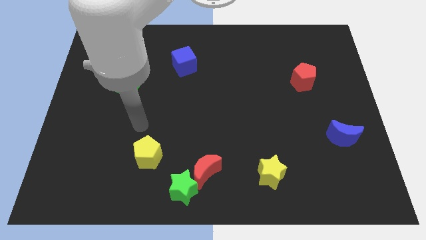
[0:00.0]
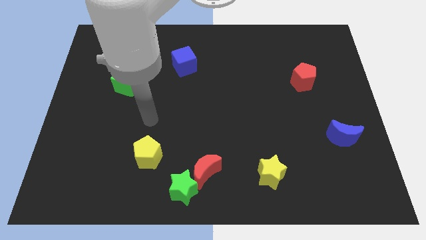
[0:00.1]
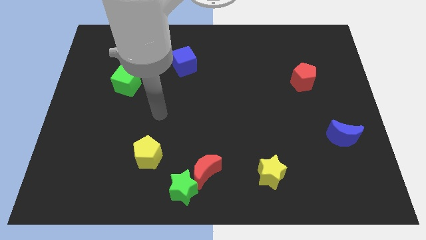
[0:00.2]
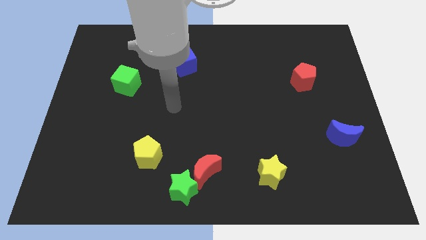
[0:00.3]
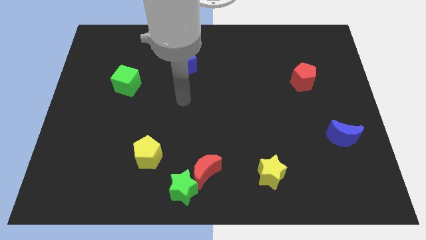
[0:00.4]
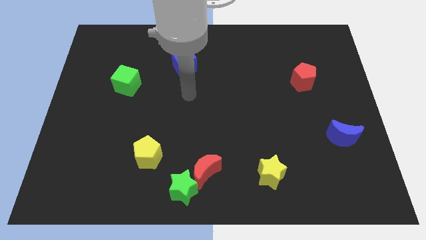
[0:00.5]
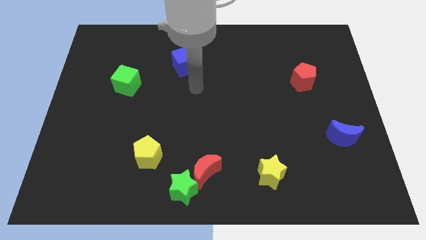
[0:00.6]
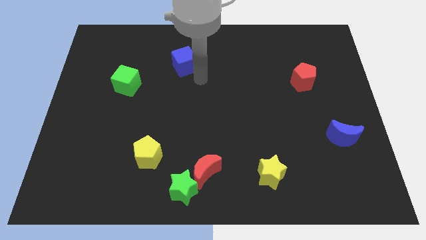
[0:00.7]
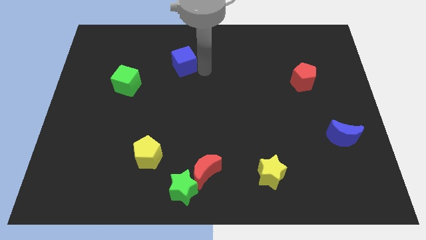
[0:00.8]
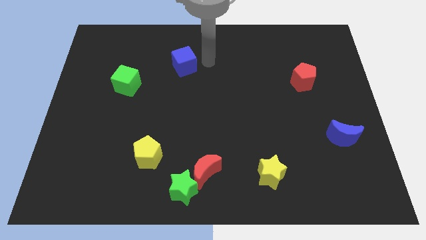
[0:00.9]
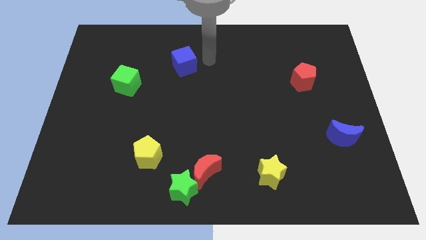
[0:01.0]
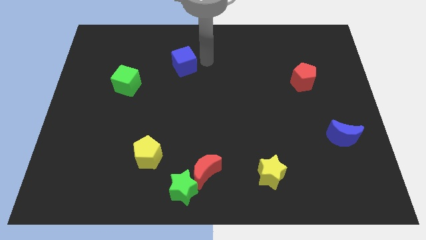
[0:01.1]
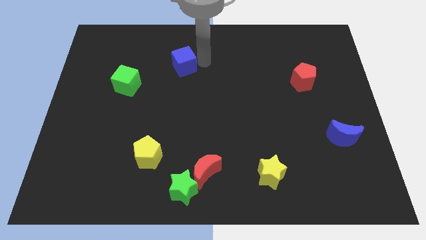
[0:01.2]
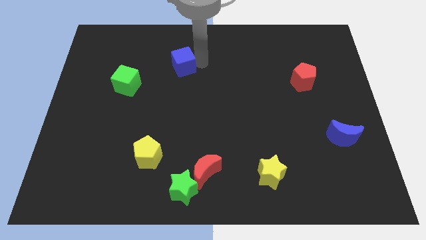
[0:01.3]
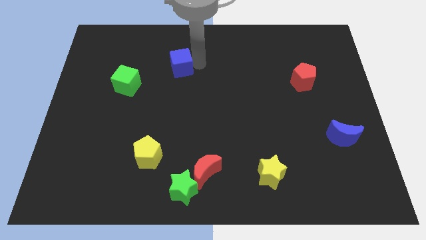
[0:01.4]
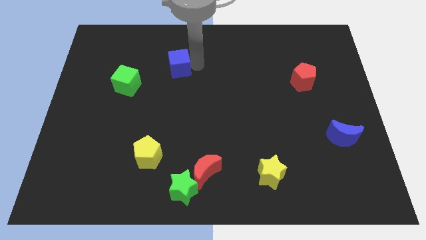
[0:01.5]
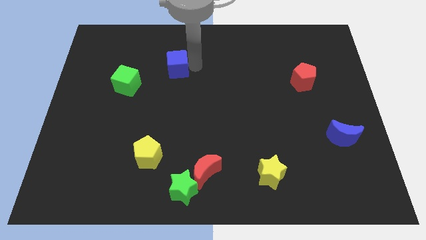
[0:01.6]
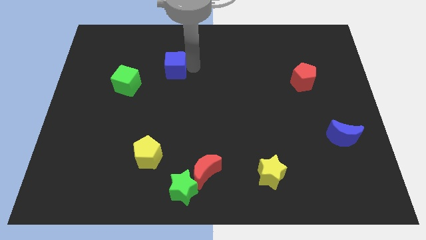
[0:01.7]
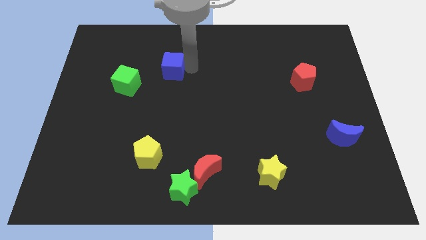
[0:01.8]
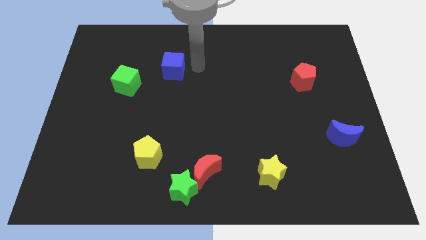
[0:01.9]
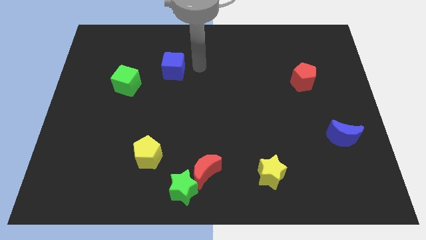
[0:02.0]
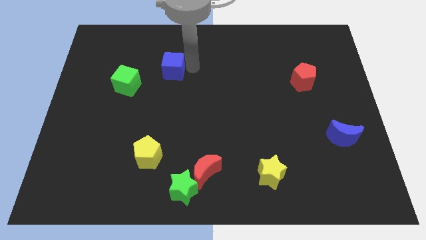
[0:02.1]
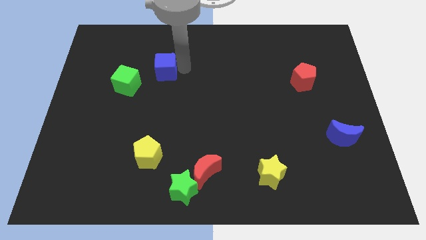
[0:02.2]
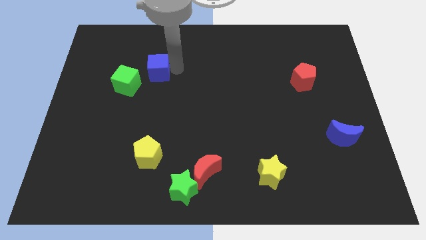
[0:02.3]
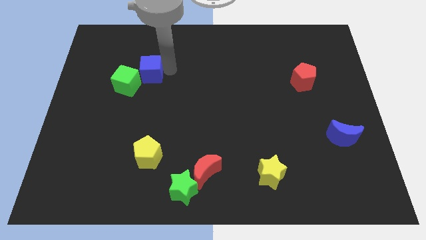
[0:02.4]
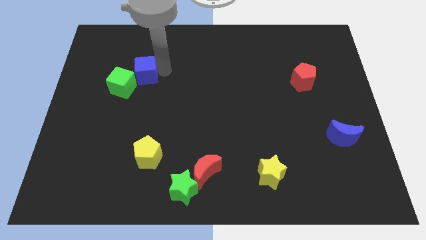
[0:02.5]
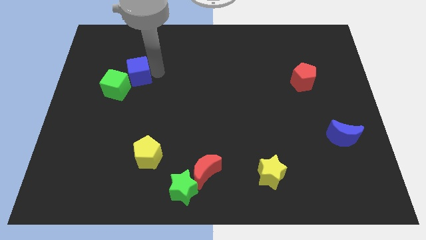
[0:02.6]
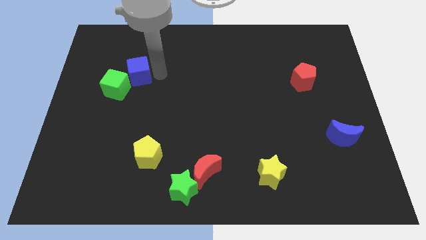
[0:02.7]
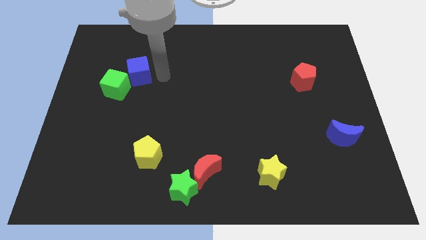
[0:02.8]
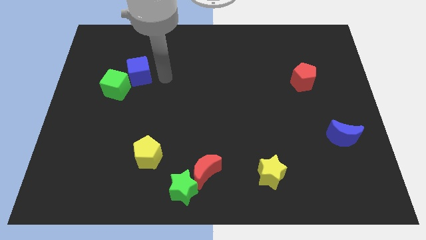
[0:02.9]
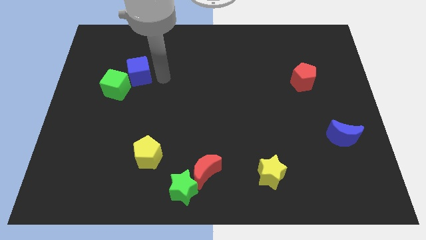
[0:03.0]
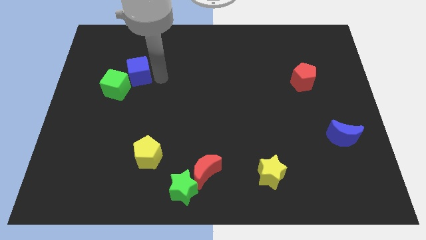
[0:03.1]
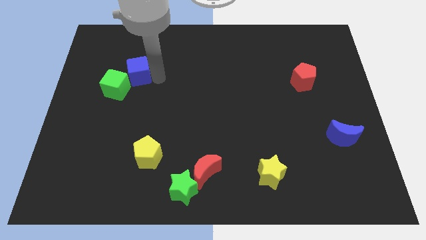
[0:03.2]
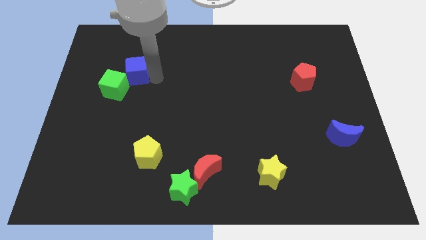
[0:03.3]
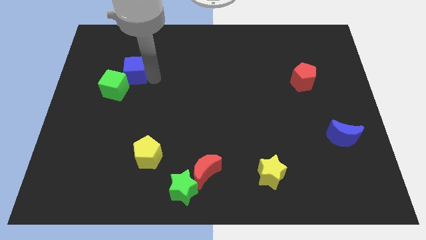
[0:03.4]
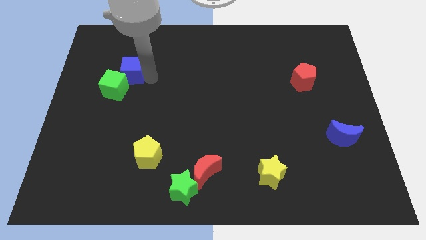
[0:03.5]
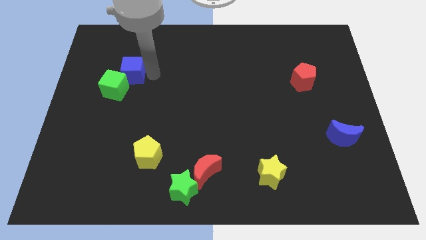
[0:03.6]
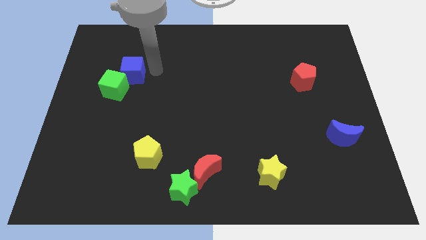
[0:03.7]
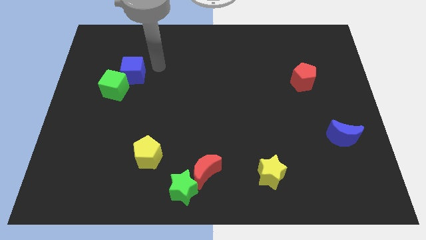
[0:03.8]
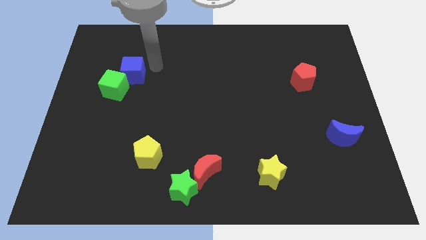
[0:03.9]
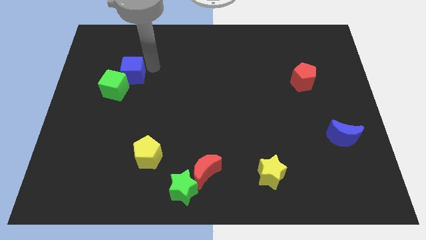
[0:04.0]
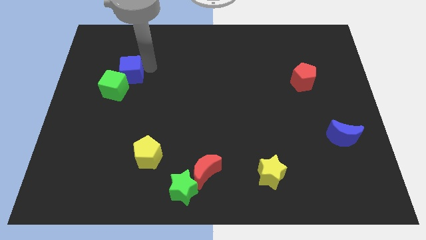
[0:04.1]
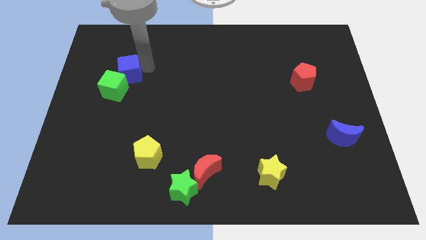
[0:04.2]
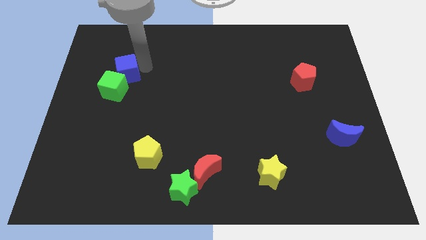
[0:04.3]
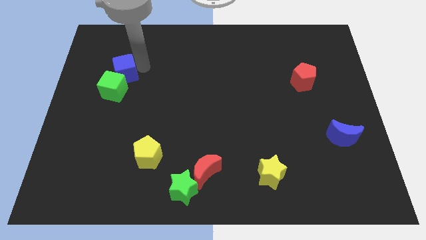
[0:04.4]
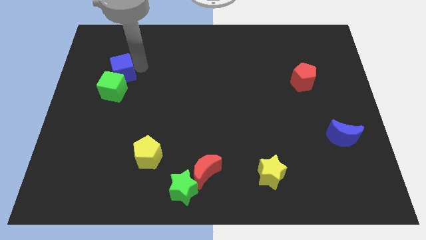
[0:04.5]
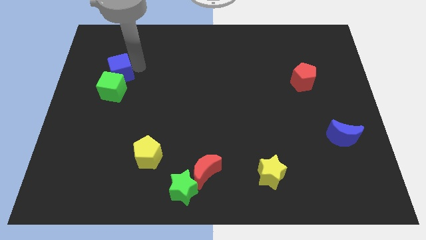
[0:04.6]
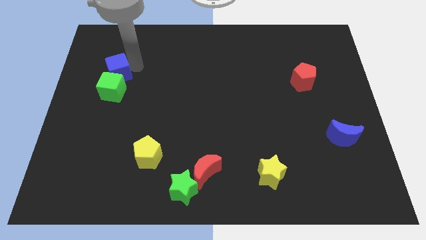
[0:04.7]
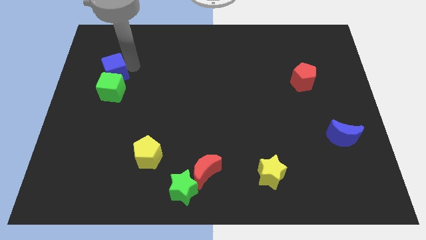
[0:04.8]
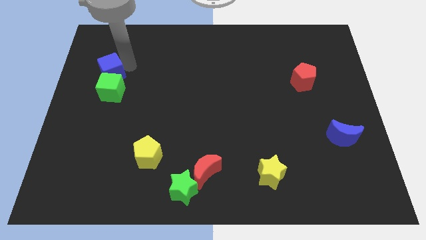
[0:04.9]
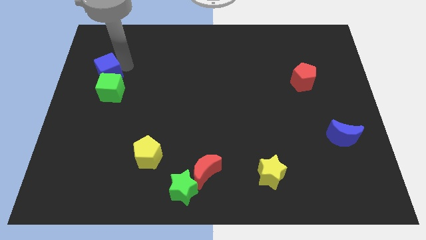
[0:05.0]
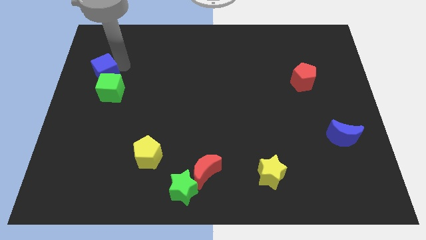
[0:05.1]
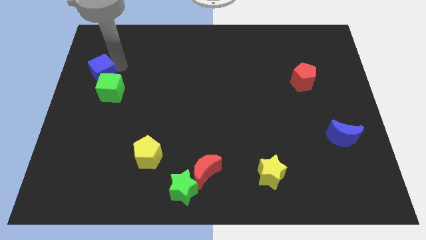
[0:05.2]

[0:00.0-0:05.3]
move the blue cube to the left side

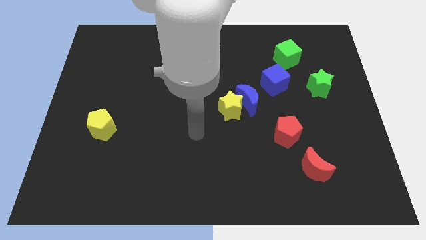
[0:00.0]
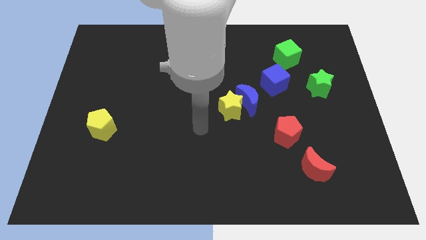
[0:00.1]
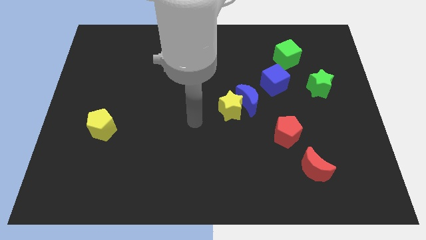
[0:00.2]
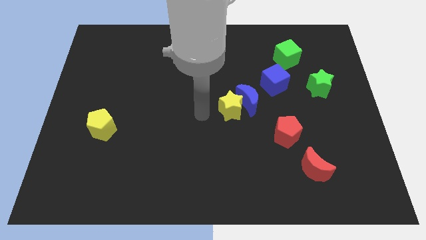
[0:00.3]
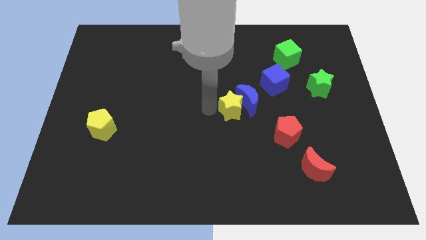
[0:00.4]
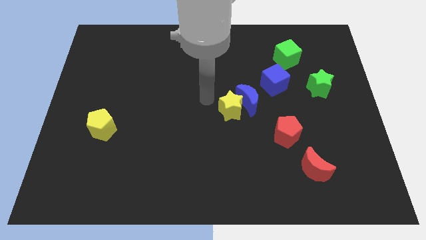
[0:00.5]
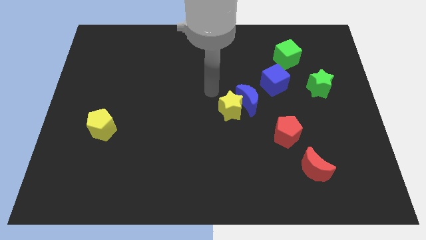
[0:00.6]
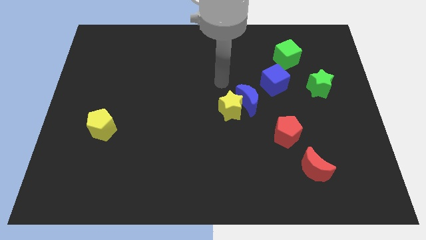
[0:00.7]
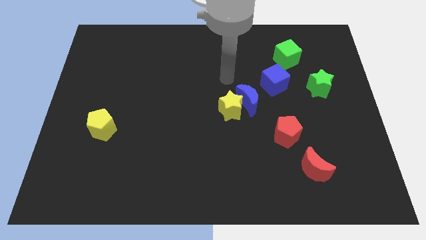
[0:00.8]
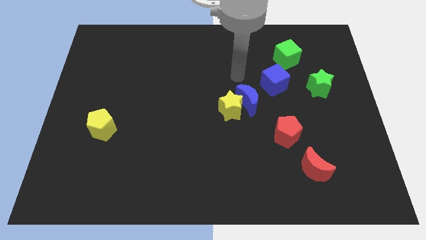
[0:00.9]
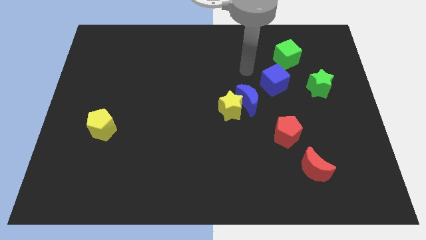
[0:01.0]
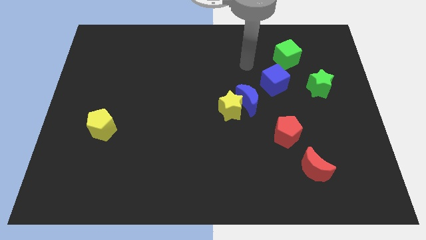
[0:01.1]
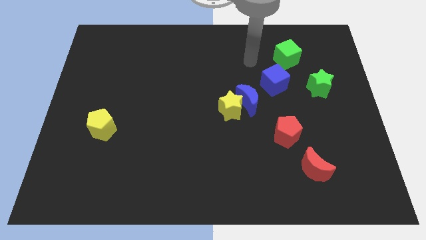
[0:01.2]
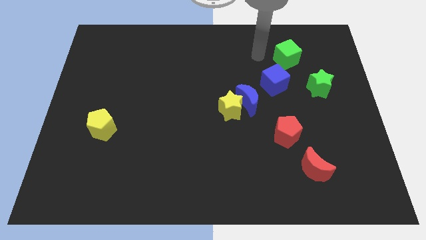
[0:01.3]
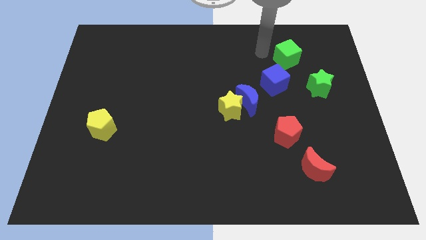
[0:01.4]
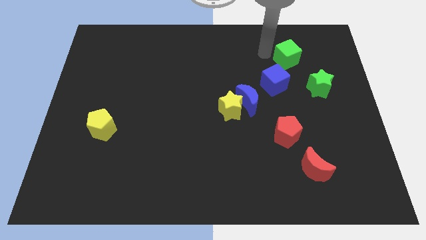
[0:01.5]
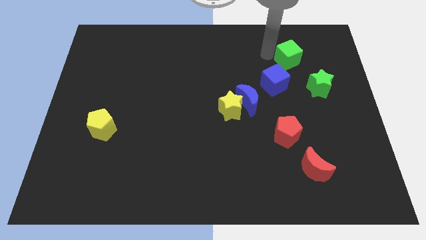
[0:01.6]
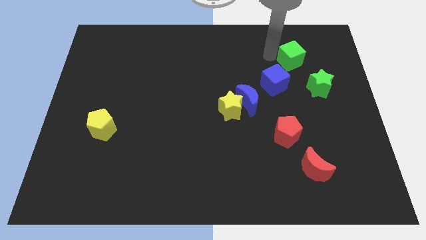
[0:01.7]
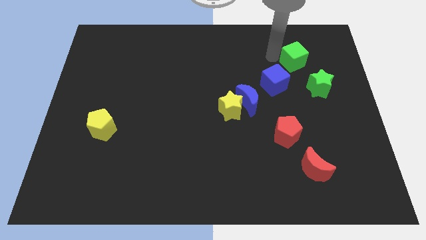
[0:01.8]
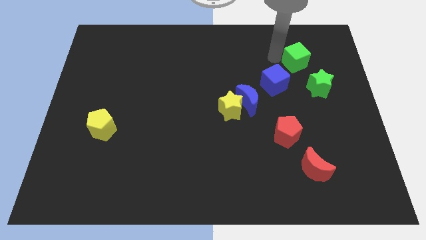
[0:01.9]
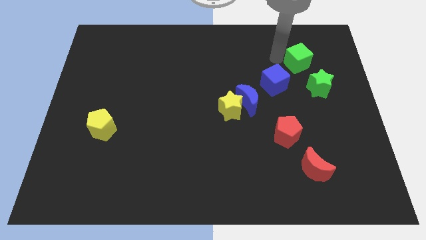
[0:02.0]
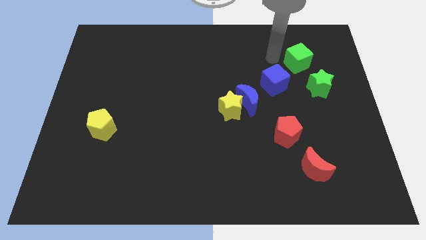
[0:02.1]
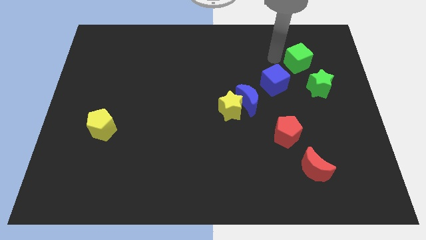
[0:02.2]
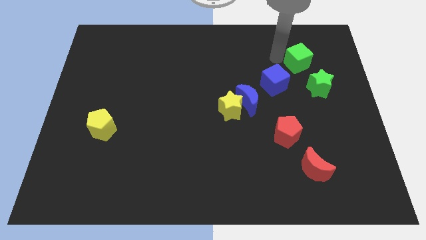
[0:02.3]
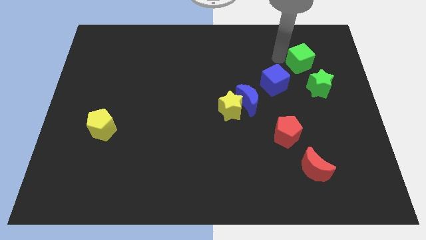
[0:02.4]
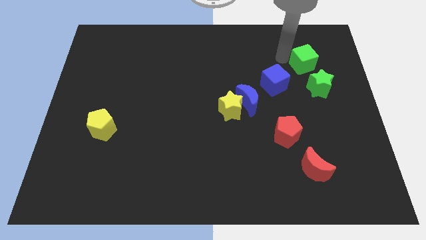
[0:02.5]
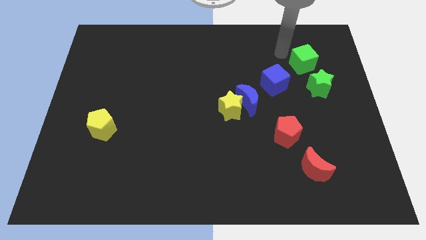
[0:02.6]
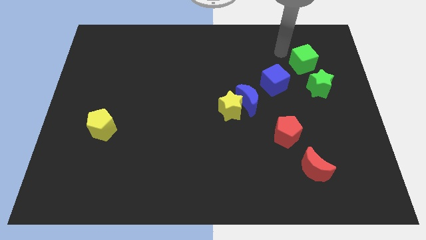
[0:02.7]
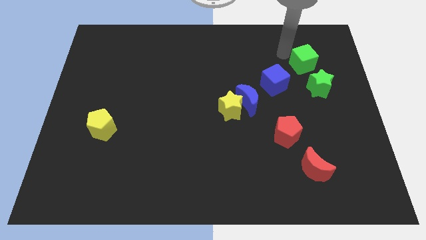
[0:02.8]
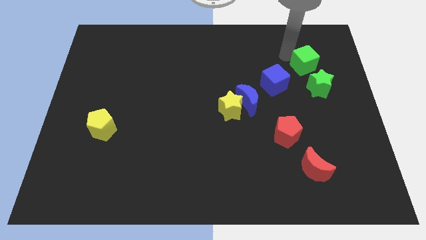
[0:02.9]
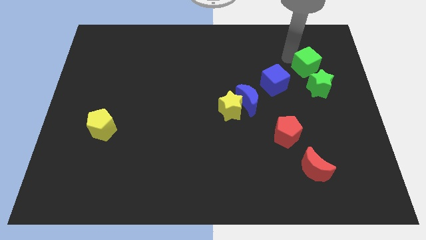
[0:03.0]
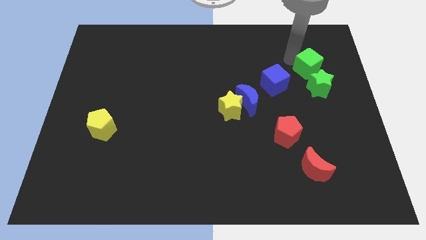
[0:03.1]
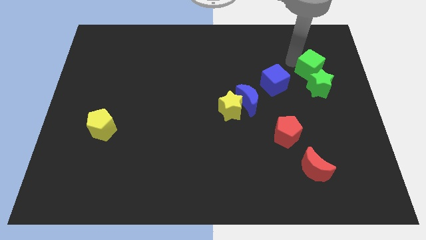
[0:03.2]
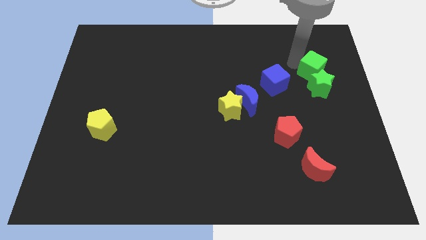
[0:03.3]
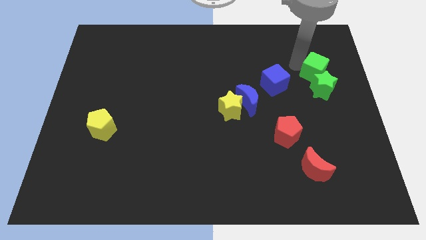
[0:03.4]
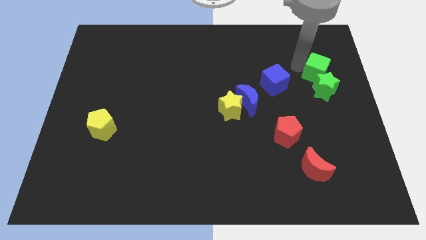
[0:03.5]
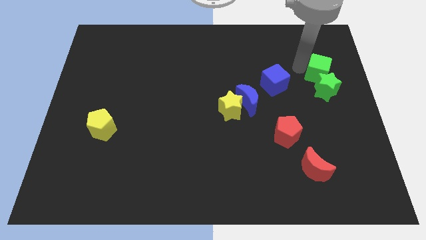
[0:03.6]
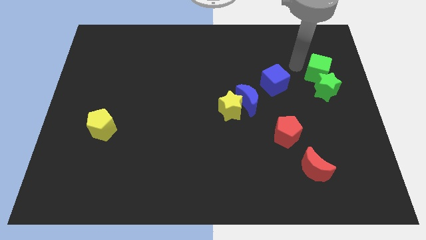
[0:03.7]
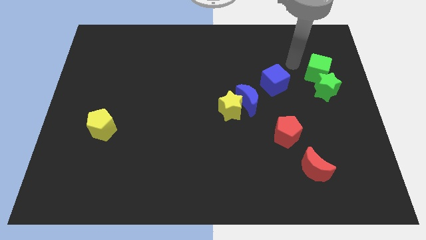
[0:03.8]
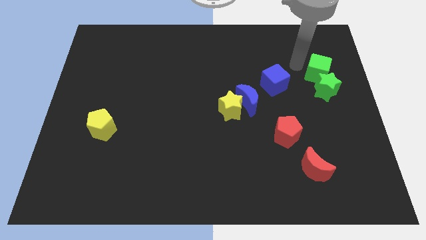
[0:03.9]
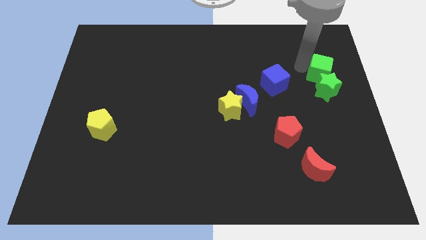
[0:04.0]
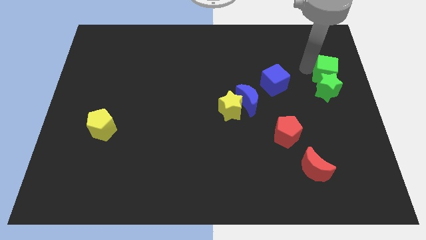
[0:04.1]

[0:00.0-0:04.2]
push the green cube to the right side
